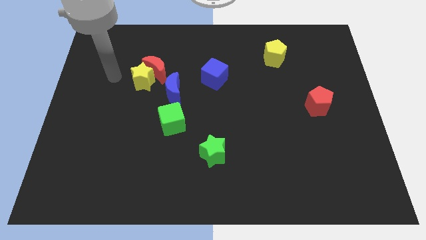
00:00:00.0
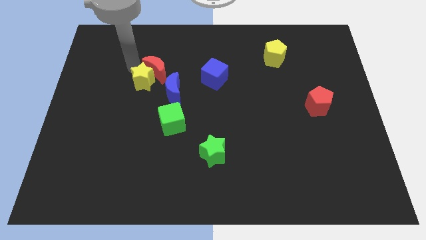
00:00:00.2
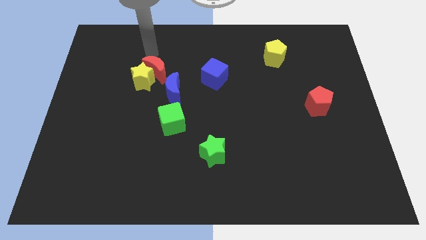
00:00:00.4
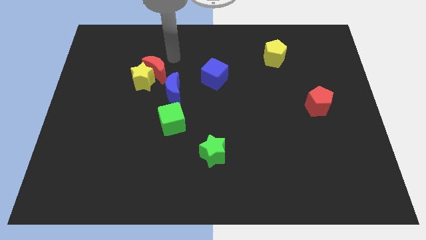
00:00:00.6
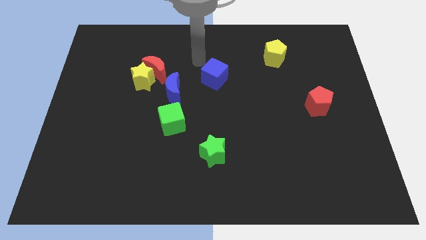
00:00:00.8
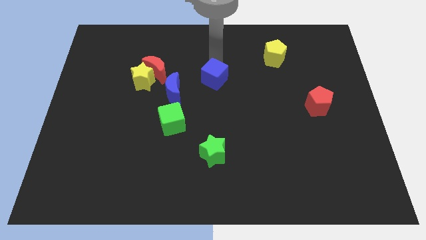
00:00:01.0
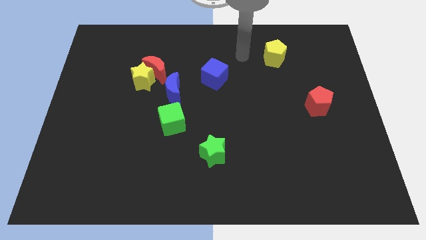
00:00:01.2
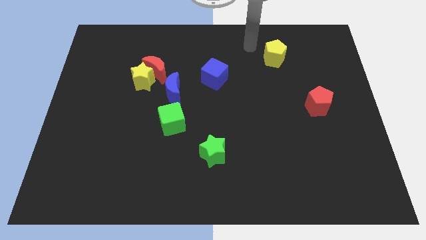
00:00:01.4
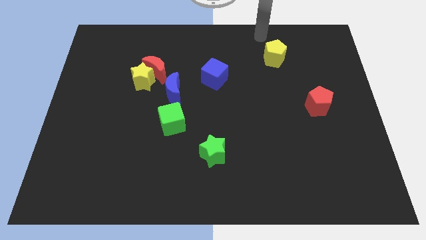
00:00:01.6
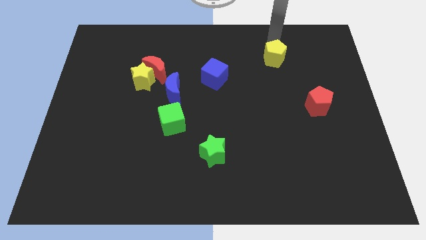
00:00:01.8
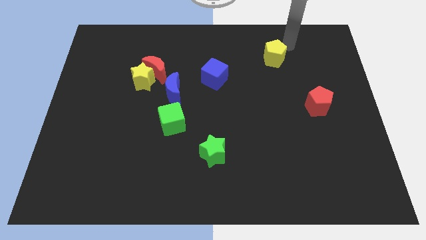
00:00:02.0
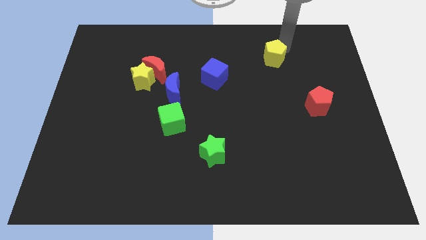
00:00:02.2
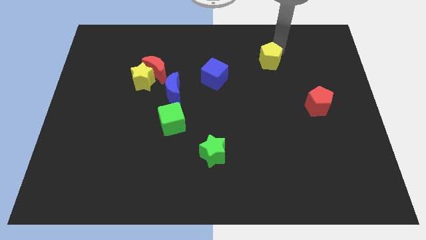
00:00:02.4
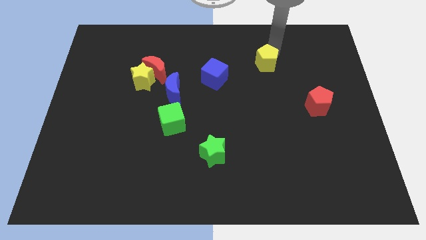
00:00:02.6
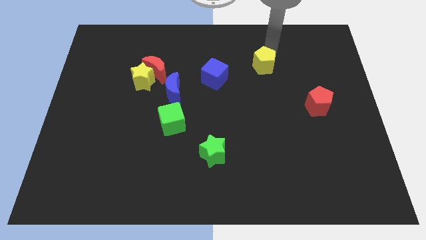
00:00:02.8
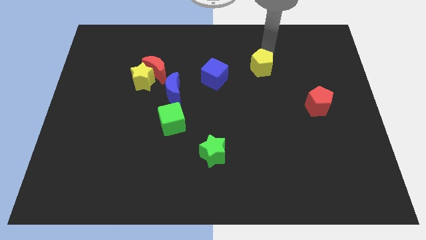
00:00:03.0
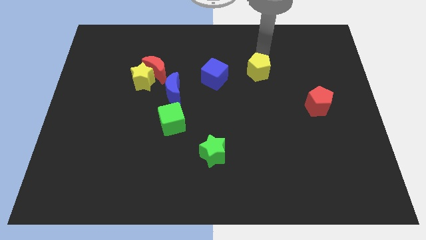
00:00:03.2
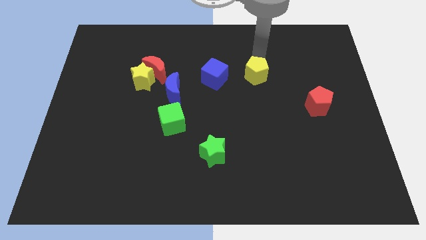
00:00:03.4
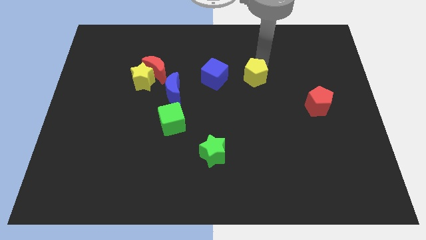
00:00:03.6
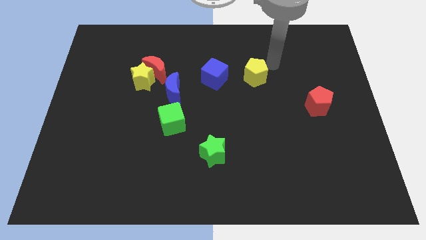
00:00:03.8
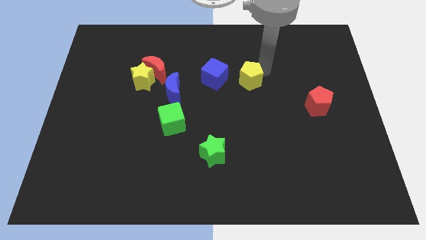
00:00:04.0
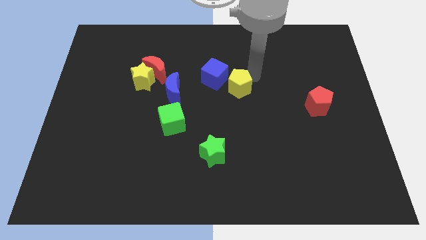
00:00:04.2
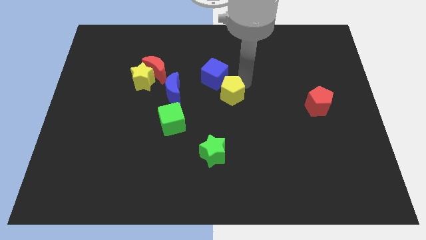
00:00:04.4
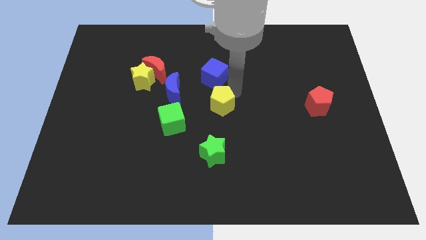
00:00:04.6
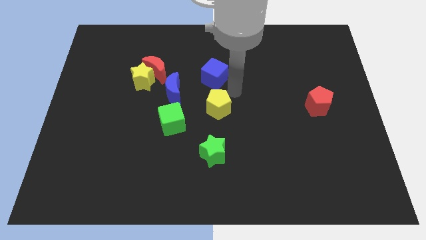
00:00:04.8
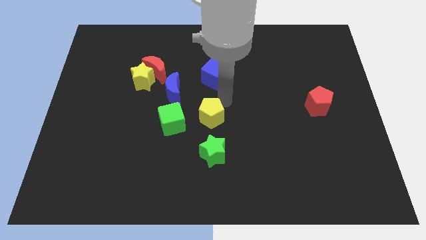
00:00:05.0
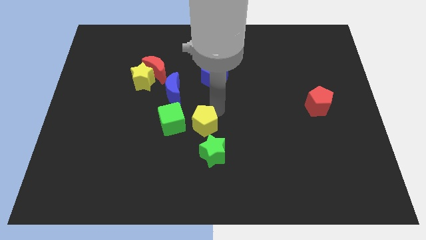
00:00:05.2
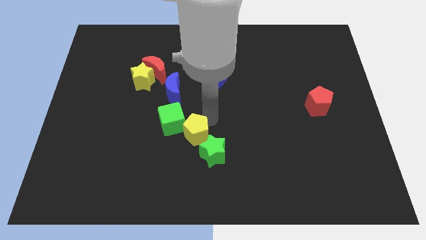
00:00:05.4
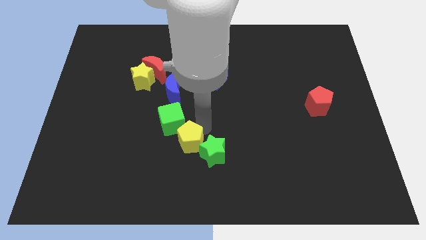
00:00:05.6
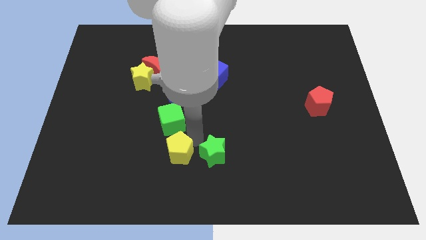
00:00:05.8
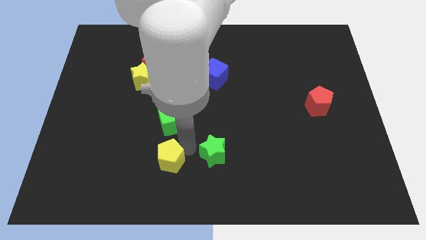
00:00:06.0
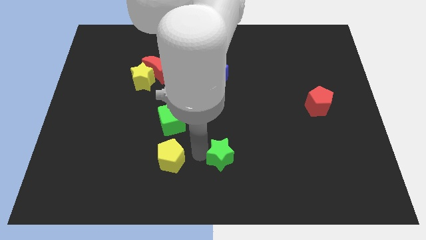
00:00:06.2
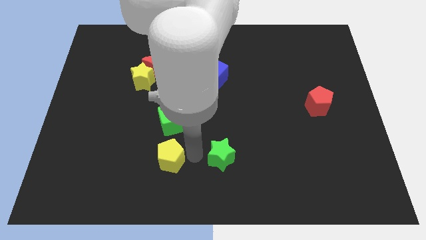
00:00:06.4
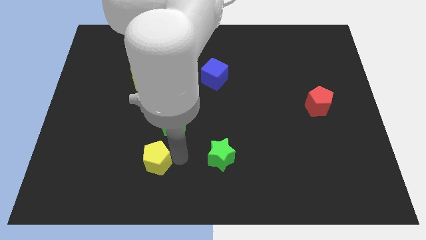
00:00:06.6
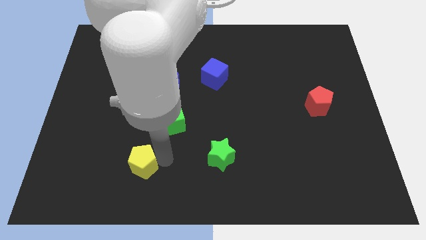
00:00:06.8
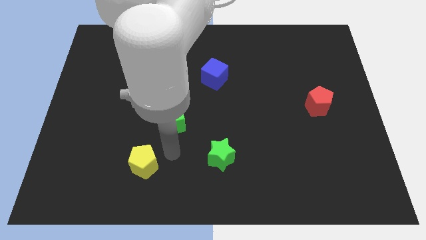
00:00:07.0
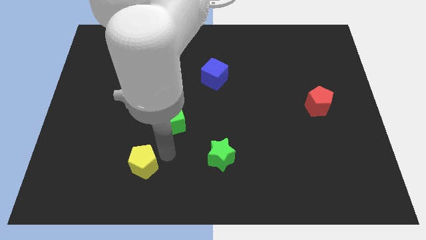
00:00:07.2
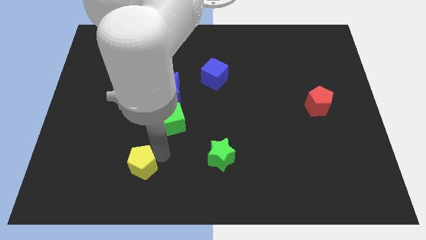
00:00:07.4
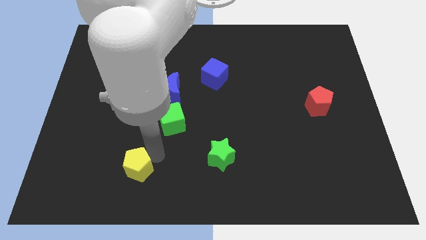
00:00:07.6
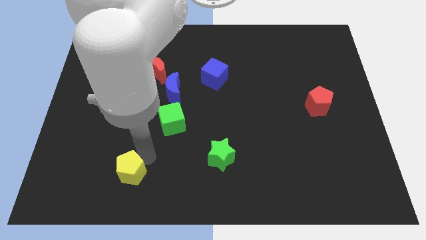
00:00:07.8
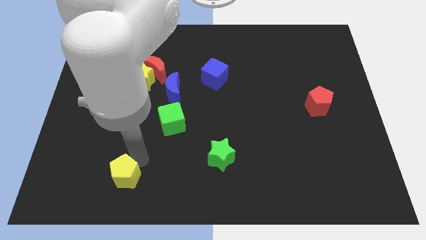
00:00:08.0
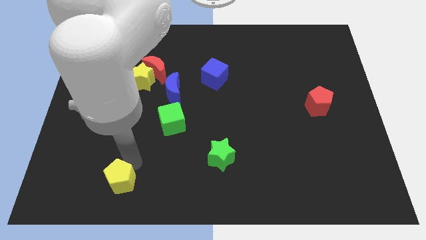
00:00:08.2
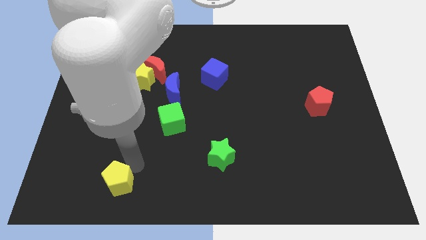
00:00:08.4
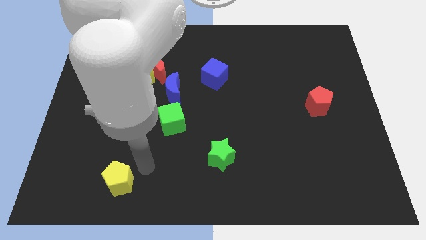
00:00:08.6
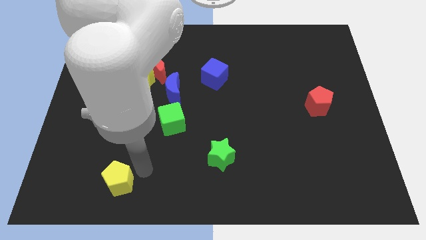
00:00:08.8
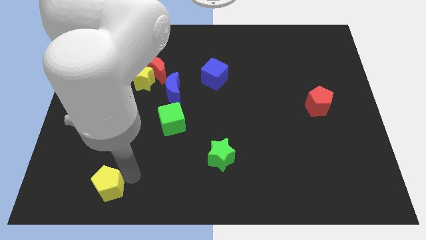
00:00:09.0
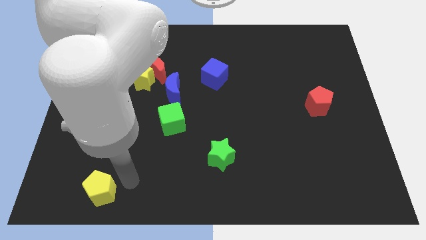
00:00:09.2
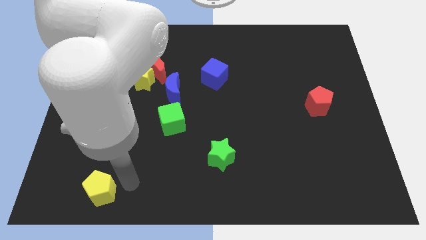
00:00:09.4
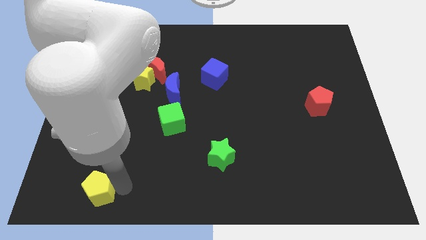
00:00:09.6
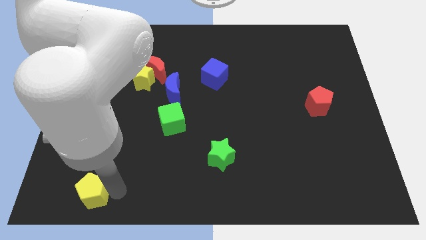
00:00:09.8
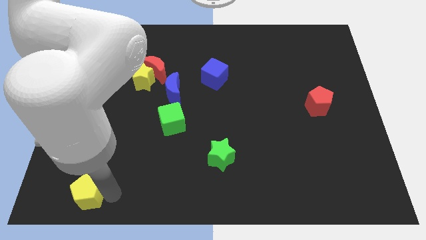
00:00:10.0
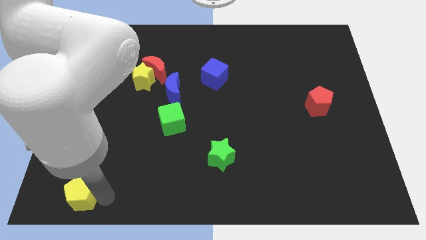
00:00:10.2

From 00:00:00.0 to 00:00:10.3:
push the yellow pentagon to the lower left corner
